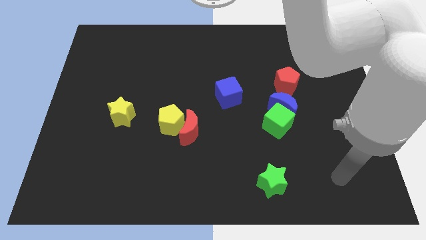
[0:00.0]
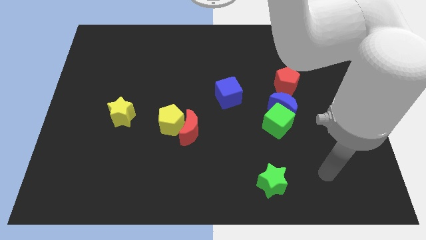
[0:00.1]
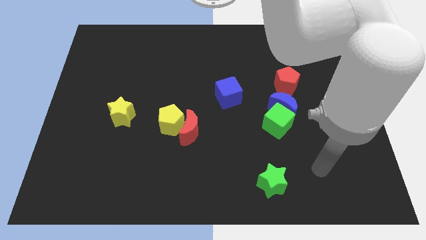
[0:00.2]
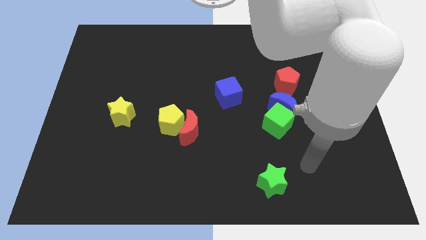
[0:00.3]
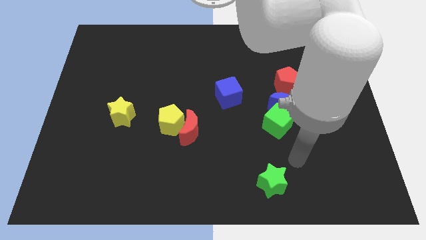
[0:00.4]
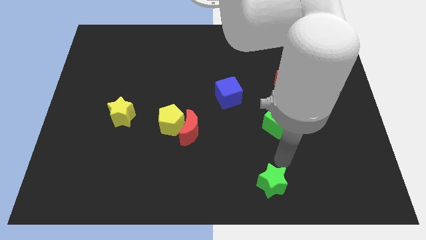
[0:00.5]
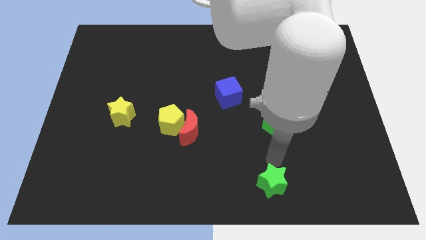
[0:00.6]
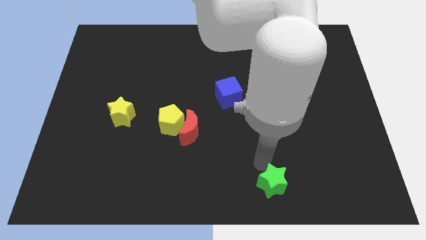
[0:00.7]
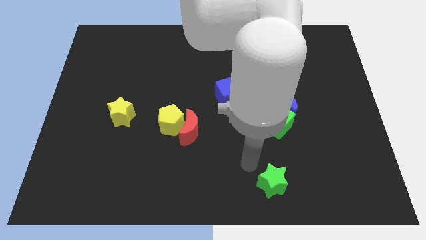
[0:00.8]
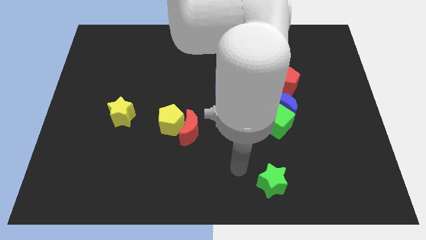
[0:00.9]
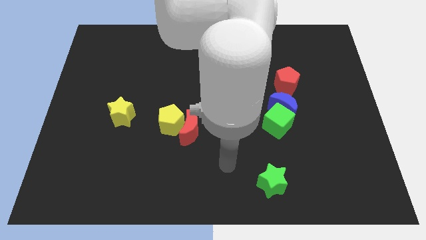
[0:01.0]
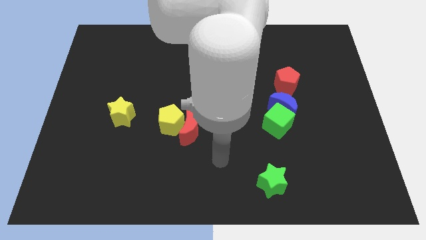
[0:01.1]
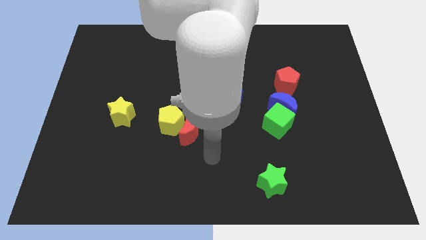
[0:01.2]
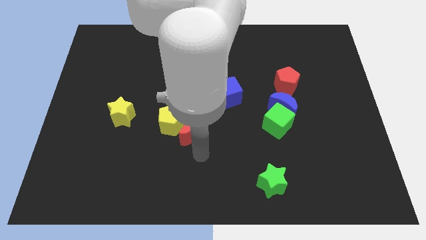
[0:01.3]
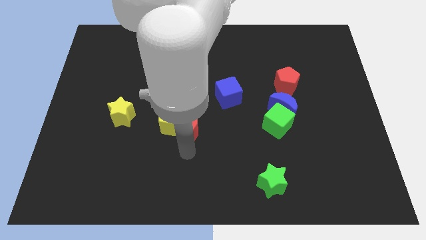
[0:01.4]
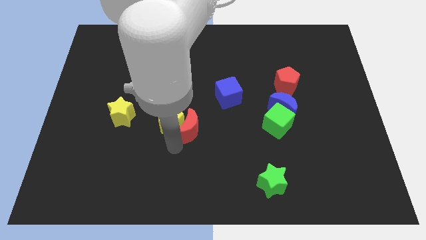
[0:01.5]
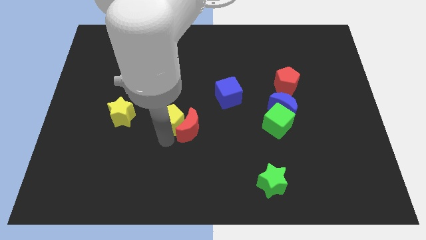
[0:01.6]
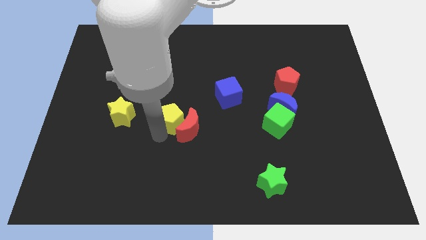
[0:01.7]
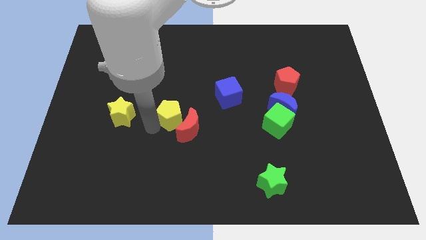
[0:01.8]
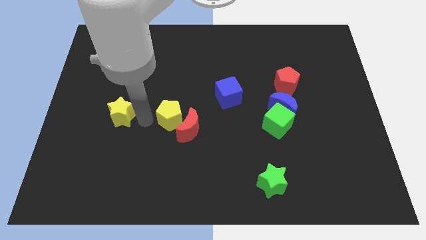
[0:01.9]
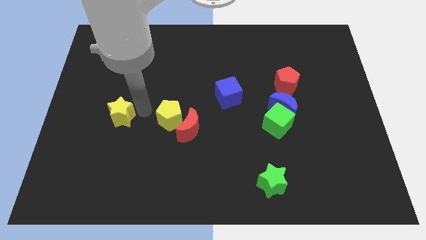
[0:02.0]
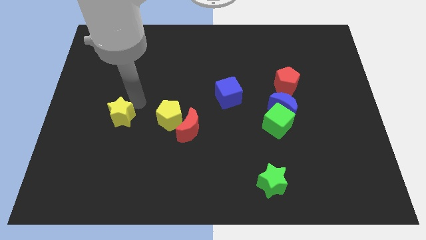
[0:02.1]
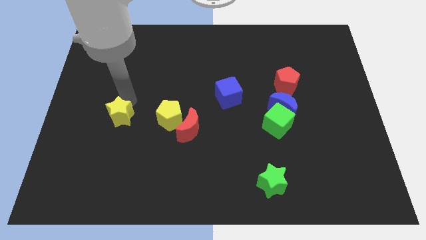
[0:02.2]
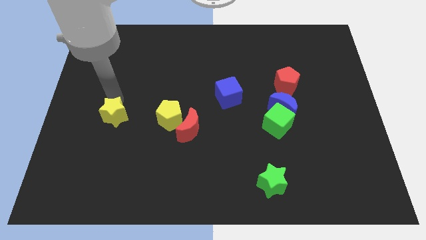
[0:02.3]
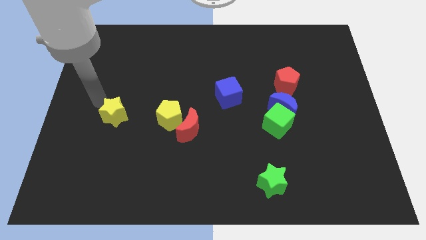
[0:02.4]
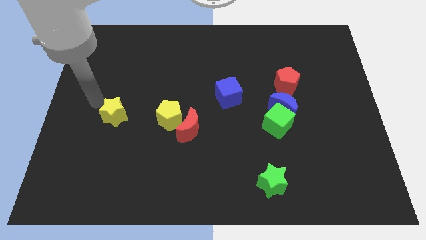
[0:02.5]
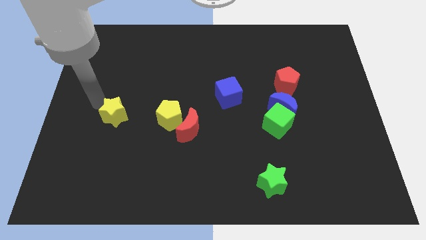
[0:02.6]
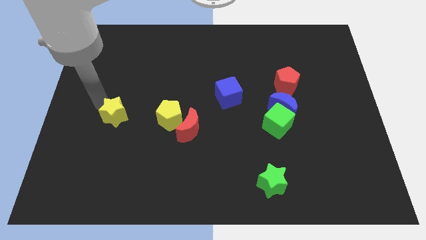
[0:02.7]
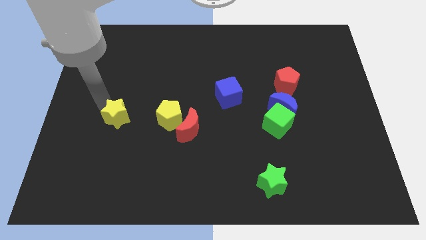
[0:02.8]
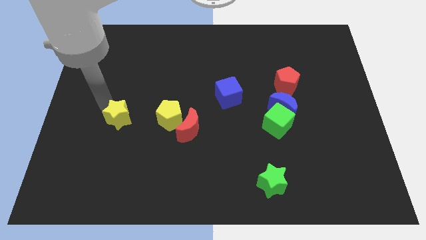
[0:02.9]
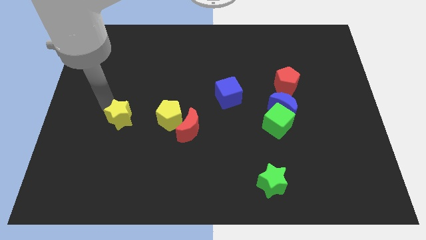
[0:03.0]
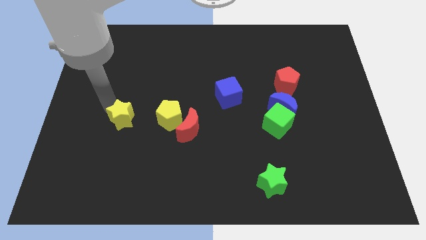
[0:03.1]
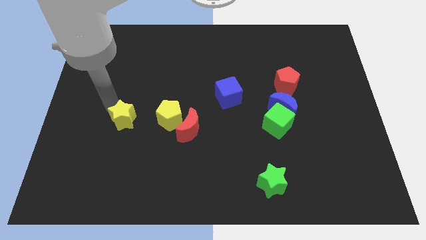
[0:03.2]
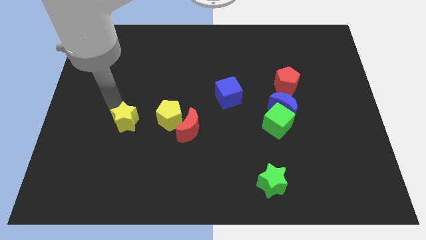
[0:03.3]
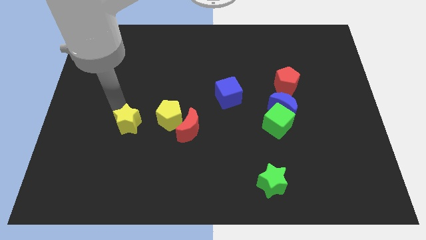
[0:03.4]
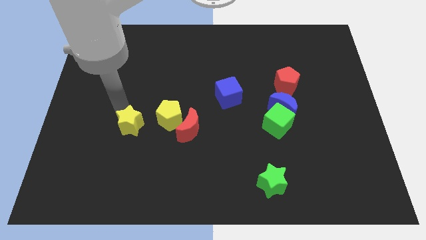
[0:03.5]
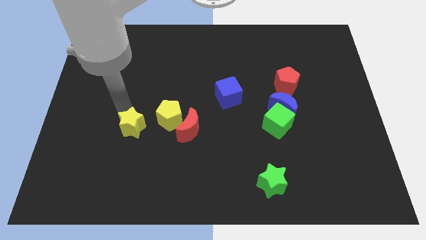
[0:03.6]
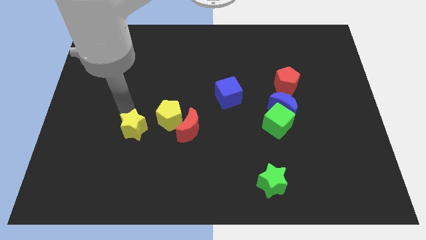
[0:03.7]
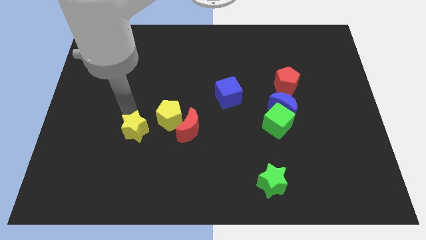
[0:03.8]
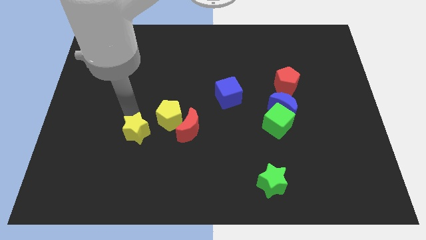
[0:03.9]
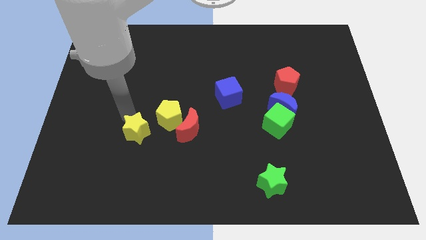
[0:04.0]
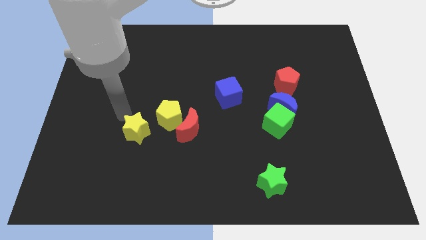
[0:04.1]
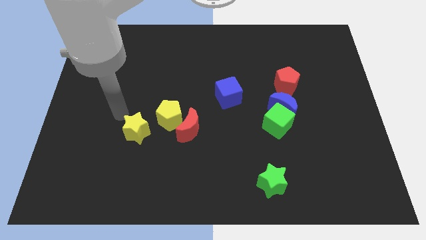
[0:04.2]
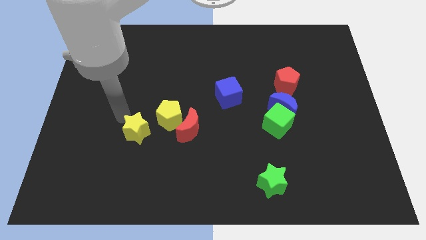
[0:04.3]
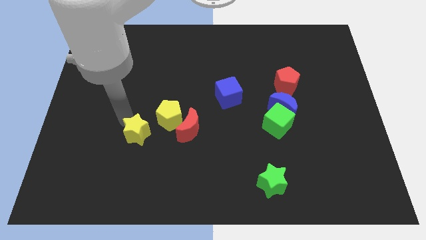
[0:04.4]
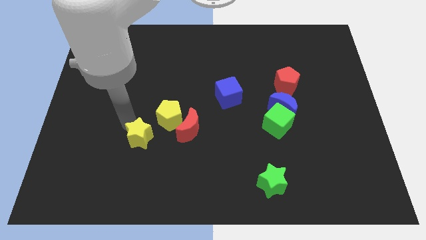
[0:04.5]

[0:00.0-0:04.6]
move the yellow star downwards and to the right slightly

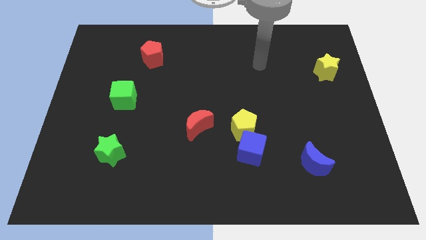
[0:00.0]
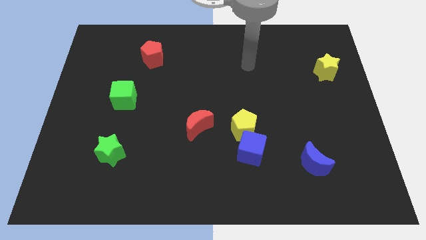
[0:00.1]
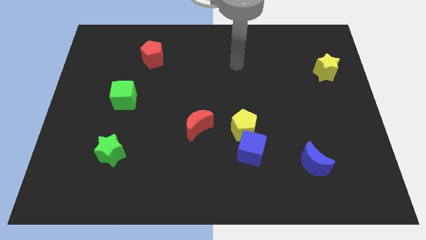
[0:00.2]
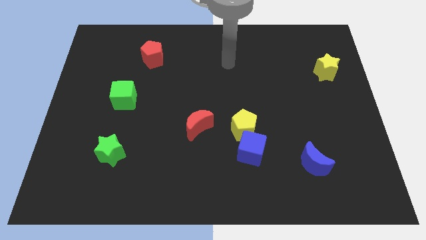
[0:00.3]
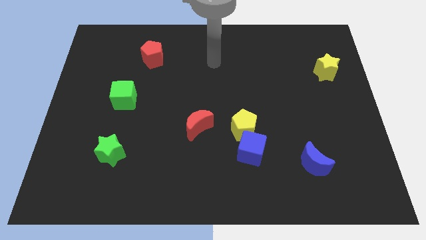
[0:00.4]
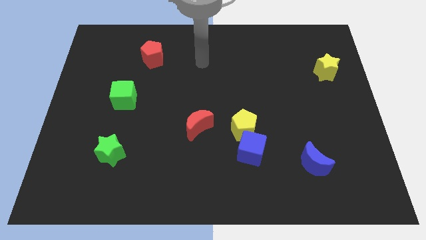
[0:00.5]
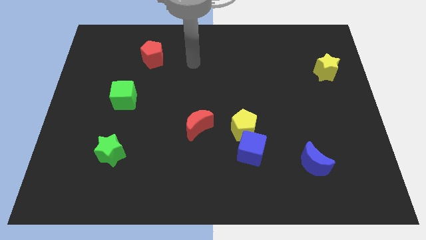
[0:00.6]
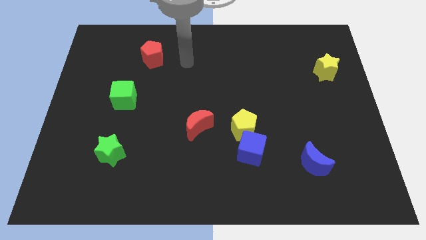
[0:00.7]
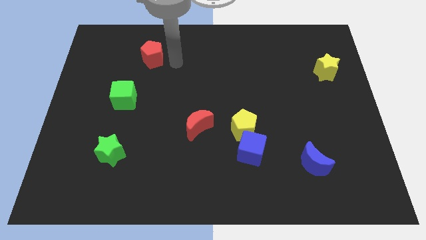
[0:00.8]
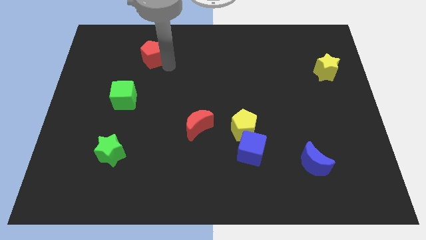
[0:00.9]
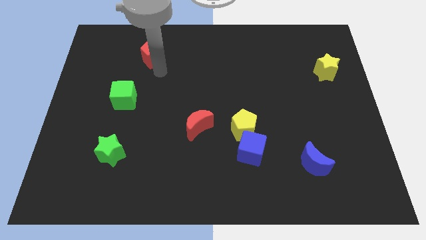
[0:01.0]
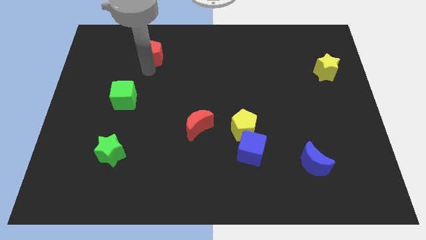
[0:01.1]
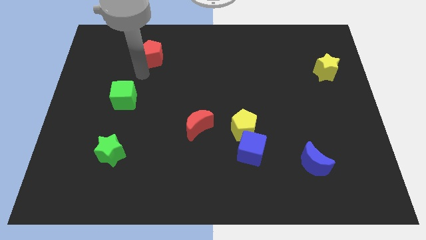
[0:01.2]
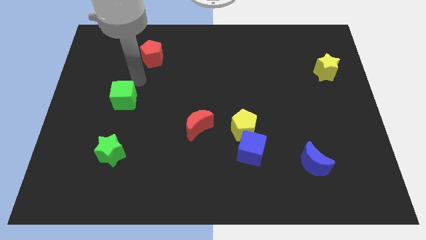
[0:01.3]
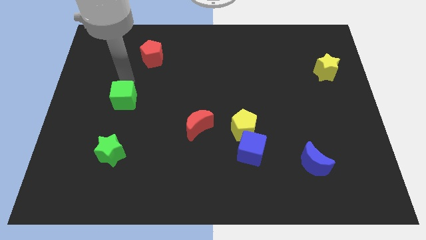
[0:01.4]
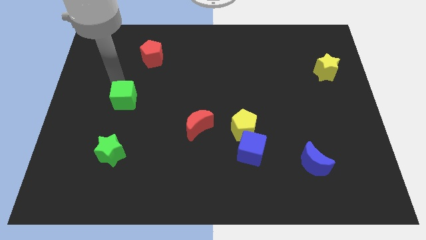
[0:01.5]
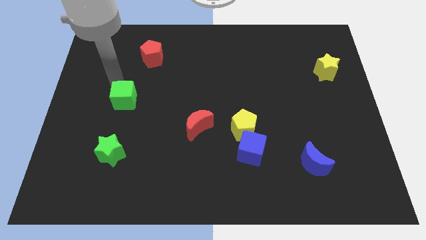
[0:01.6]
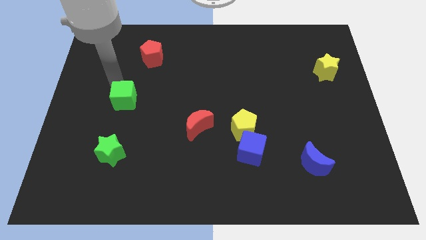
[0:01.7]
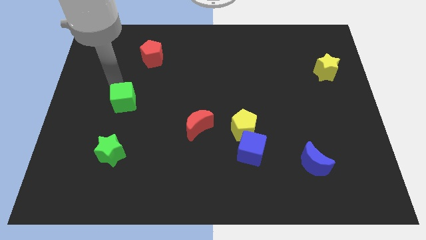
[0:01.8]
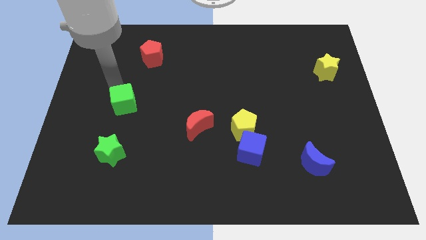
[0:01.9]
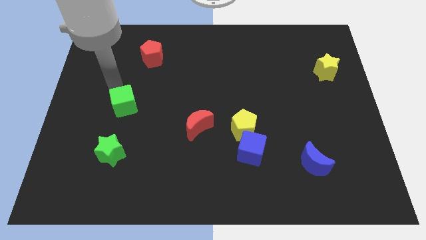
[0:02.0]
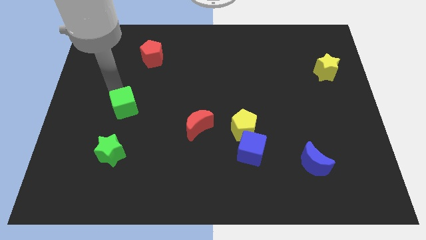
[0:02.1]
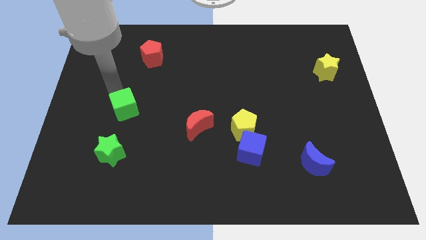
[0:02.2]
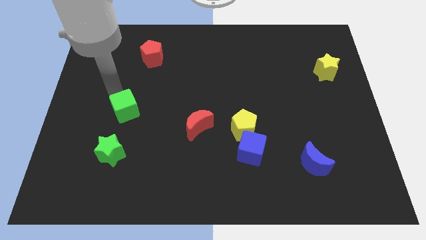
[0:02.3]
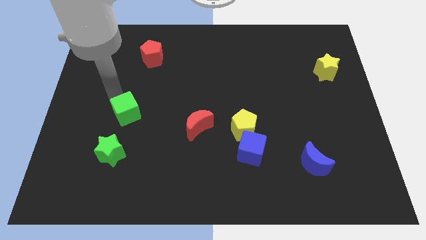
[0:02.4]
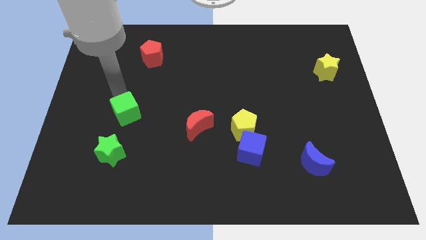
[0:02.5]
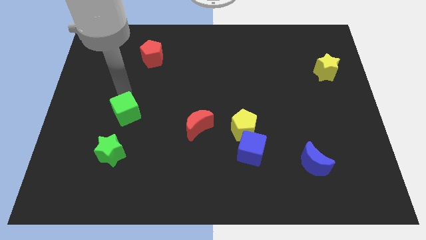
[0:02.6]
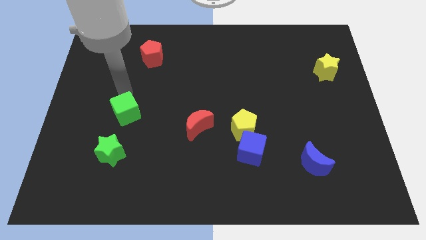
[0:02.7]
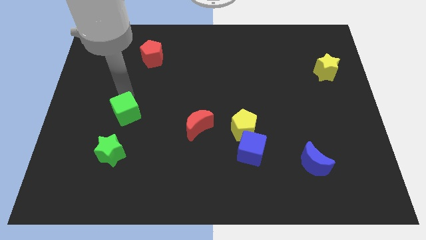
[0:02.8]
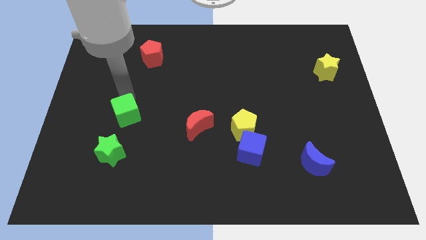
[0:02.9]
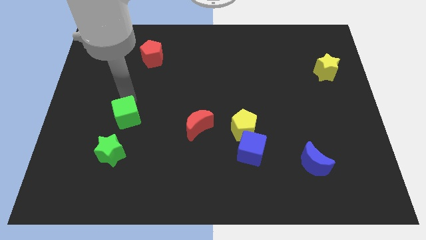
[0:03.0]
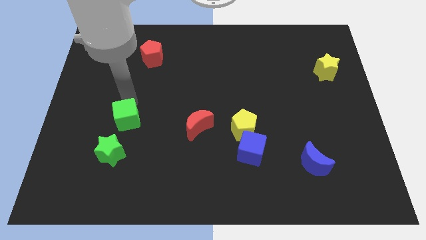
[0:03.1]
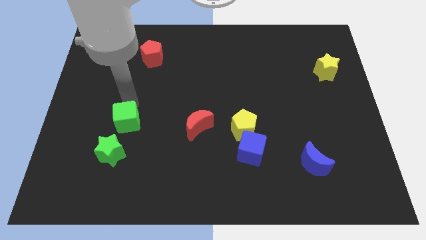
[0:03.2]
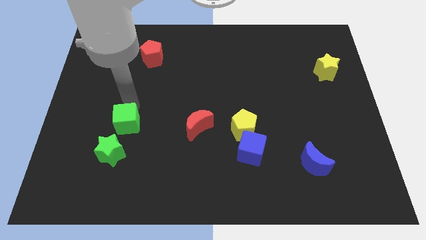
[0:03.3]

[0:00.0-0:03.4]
push the green cube somewhat downwards
